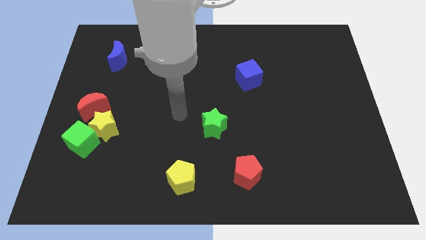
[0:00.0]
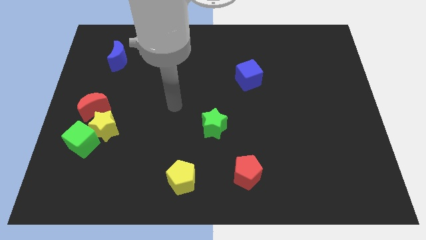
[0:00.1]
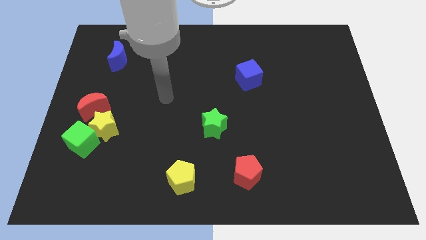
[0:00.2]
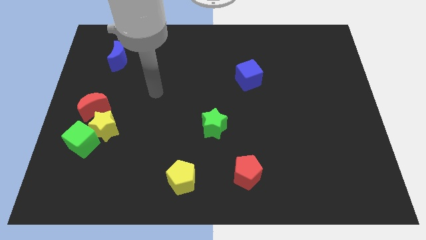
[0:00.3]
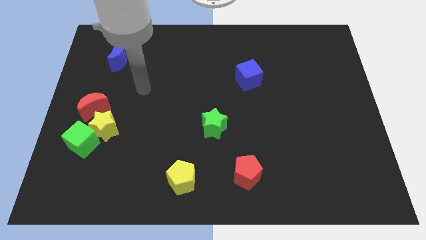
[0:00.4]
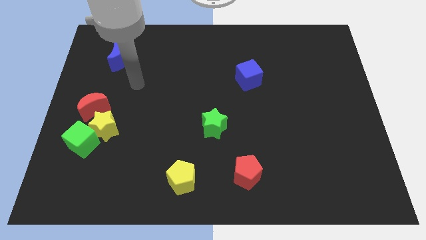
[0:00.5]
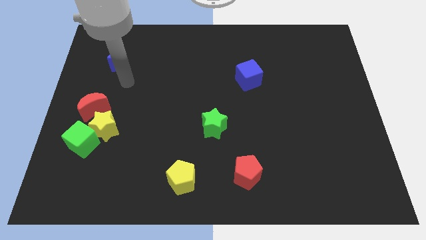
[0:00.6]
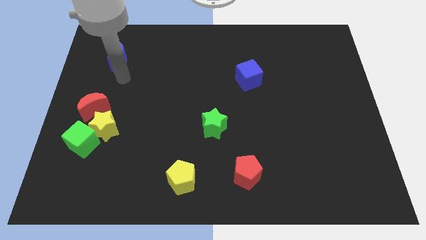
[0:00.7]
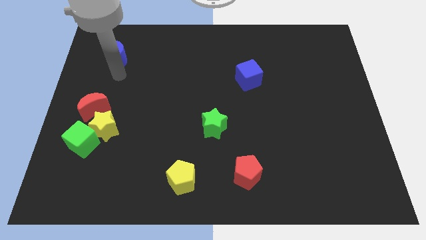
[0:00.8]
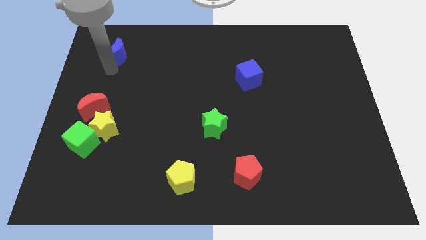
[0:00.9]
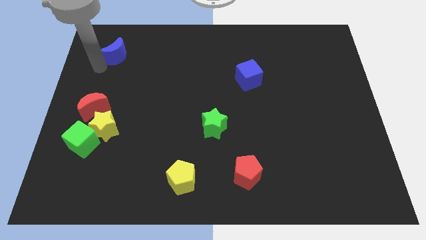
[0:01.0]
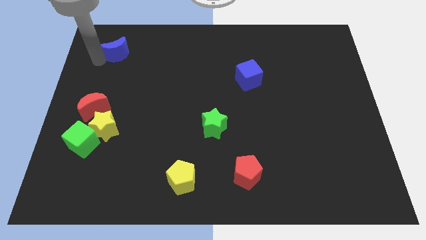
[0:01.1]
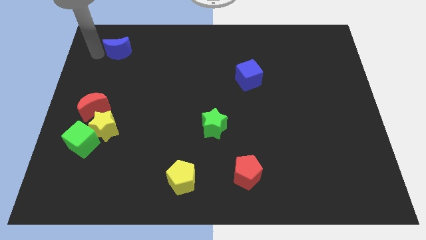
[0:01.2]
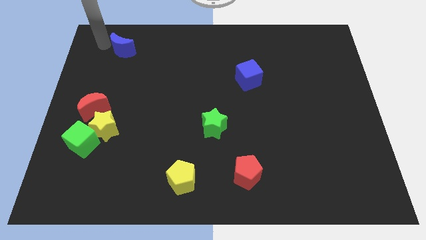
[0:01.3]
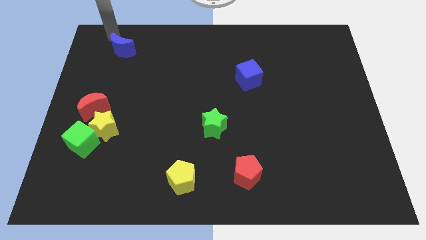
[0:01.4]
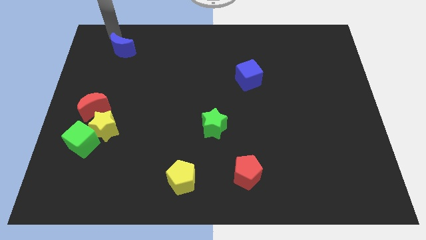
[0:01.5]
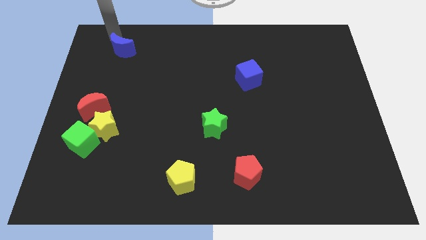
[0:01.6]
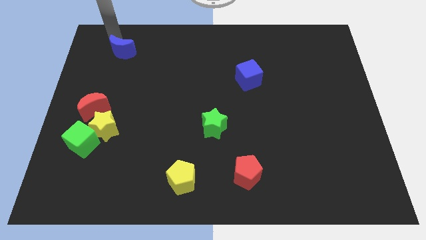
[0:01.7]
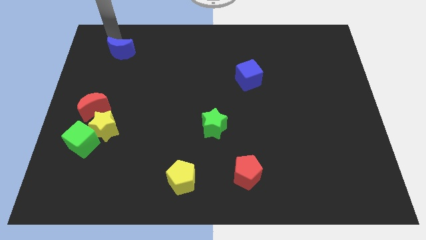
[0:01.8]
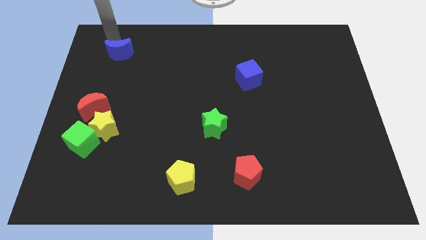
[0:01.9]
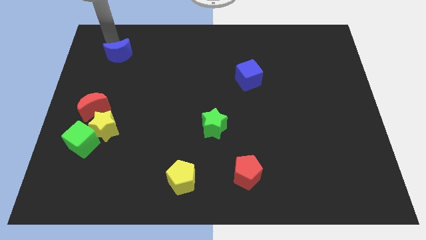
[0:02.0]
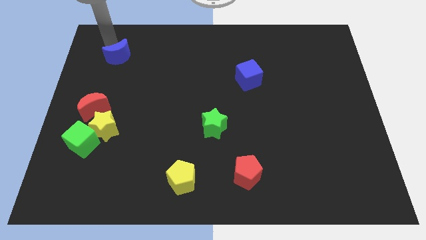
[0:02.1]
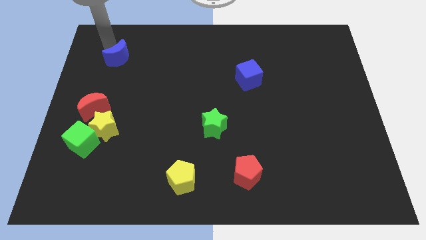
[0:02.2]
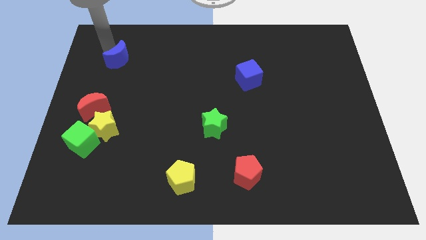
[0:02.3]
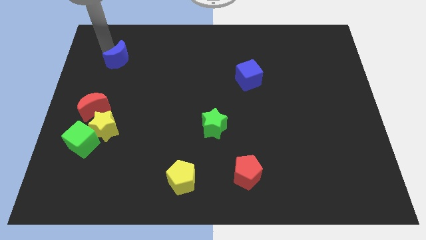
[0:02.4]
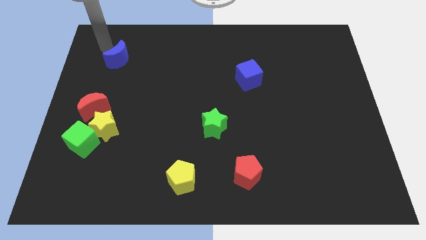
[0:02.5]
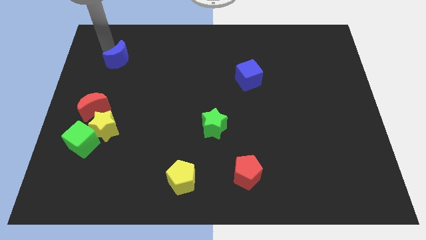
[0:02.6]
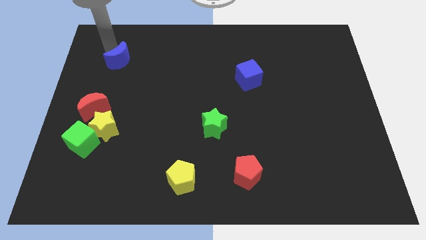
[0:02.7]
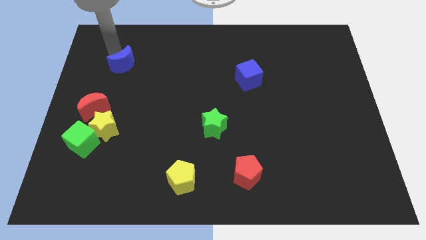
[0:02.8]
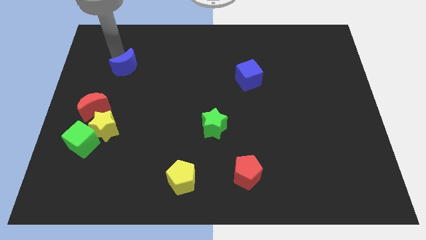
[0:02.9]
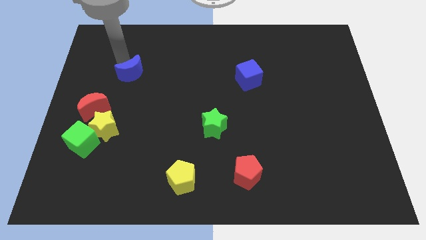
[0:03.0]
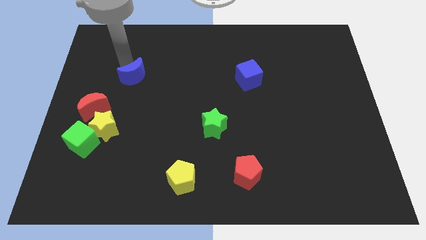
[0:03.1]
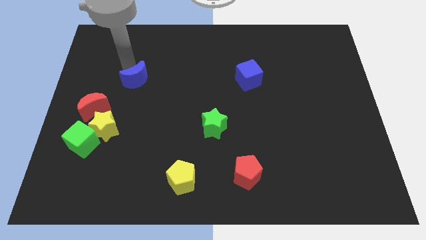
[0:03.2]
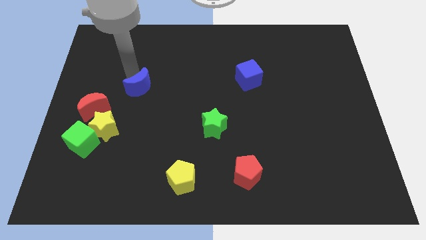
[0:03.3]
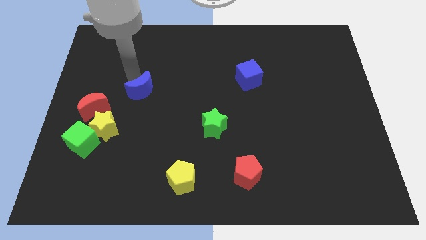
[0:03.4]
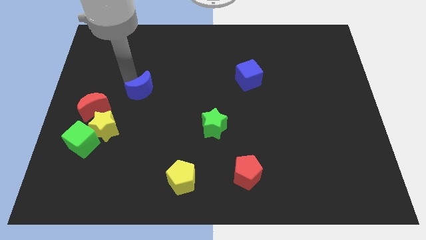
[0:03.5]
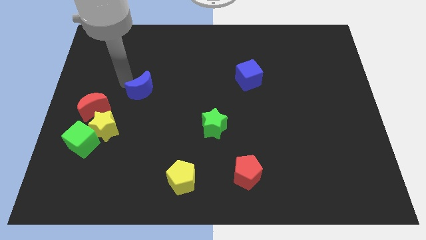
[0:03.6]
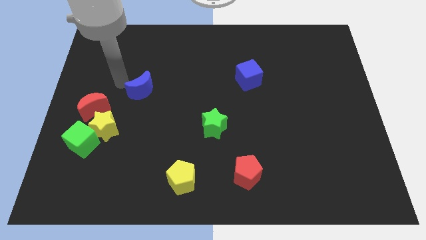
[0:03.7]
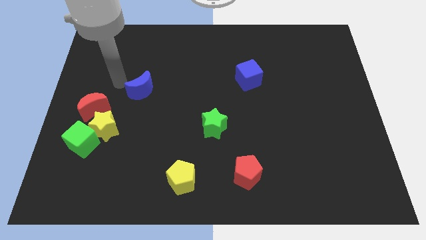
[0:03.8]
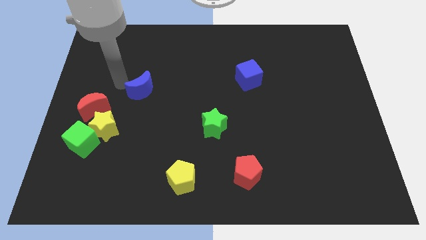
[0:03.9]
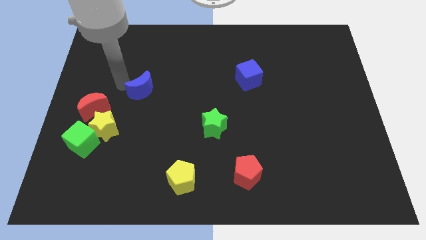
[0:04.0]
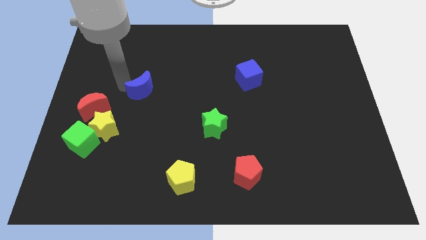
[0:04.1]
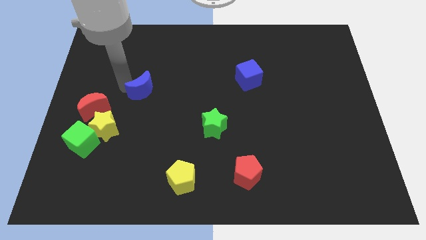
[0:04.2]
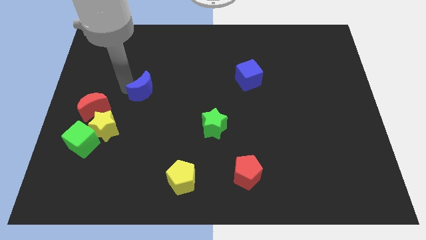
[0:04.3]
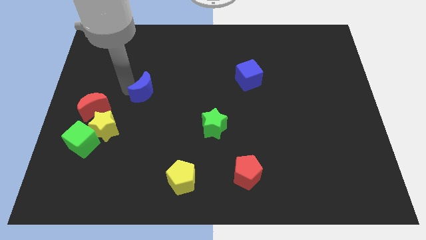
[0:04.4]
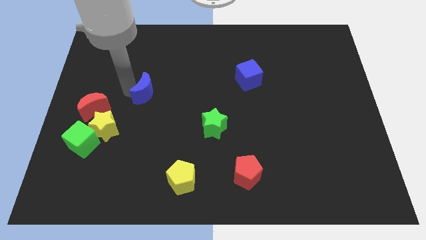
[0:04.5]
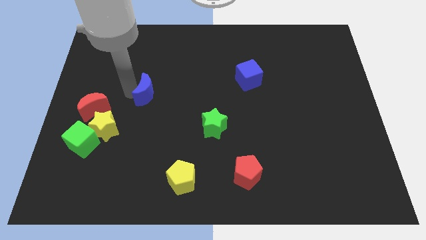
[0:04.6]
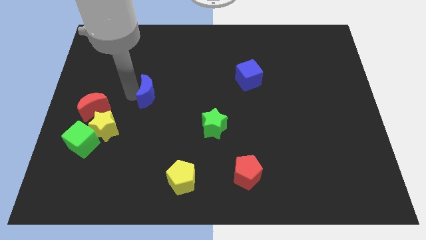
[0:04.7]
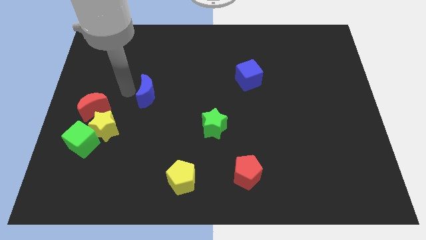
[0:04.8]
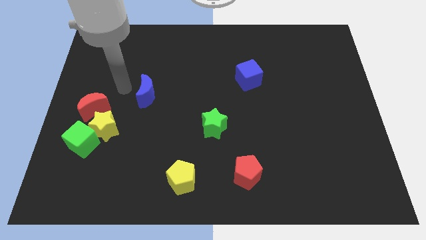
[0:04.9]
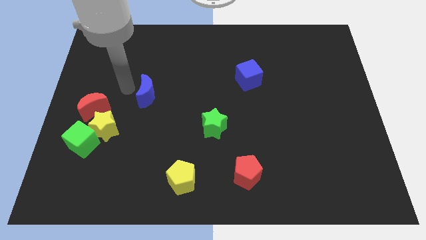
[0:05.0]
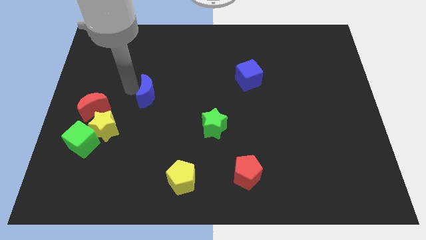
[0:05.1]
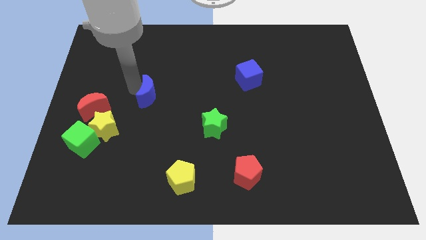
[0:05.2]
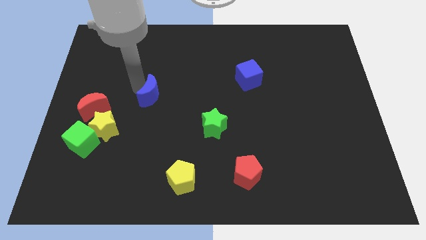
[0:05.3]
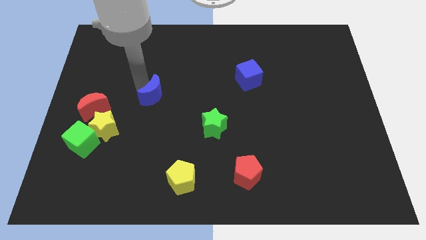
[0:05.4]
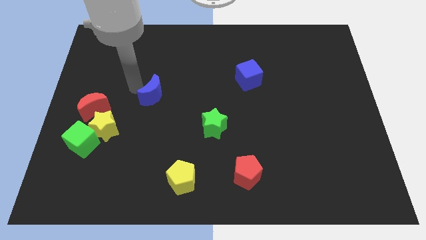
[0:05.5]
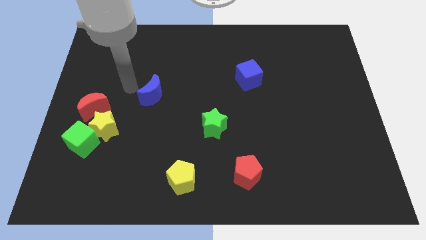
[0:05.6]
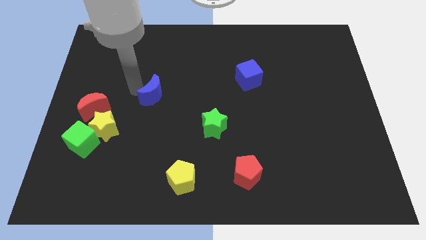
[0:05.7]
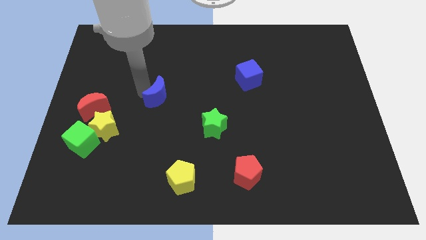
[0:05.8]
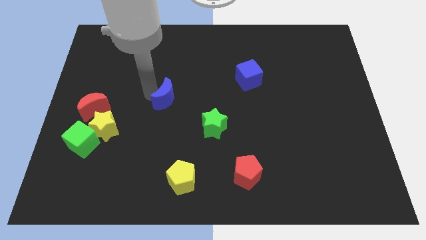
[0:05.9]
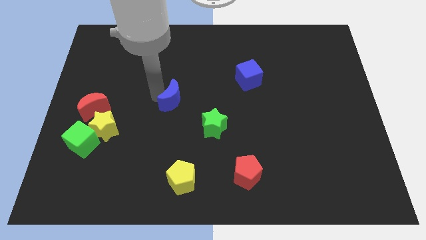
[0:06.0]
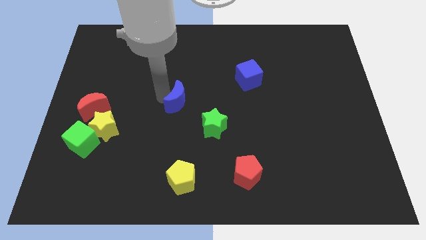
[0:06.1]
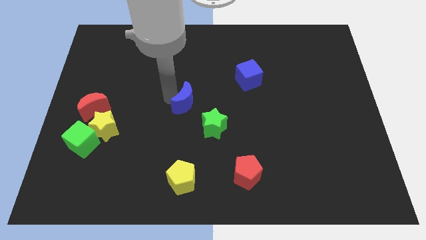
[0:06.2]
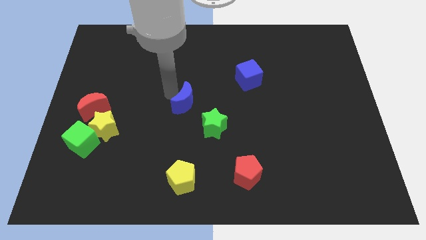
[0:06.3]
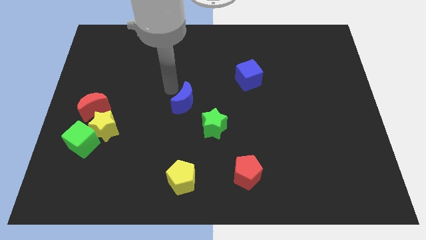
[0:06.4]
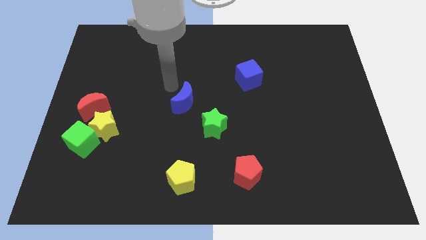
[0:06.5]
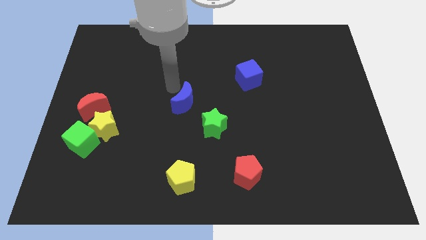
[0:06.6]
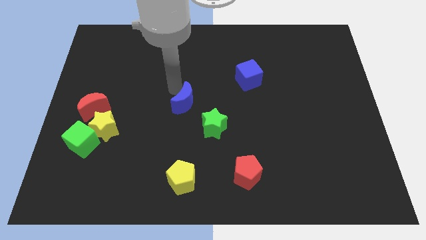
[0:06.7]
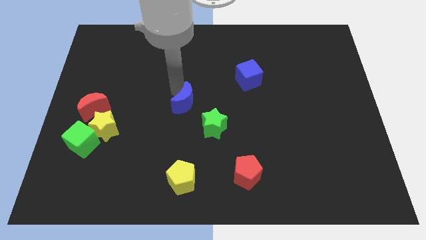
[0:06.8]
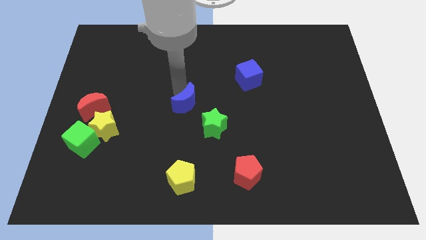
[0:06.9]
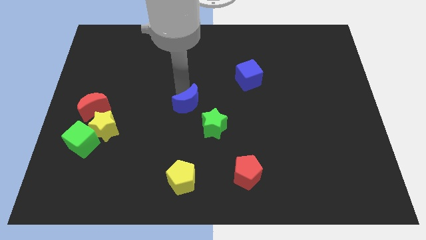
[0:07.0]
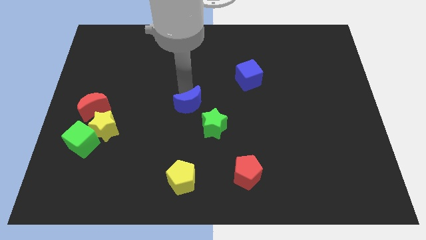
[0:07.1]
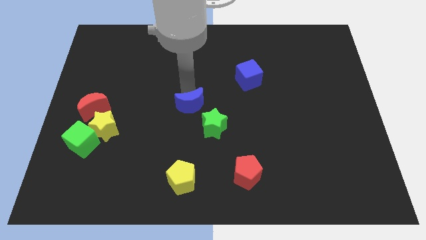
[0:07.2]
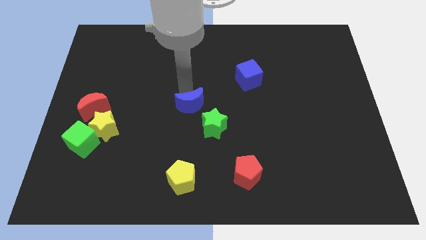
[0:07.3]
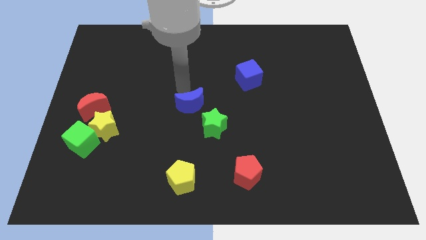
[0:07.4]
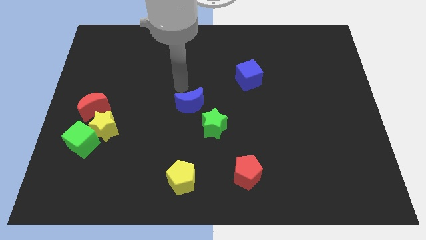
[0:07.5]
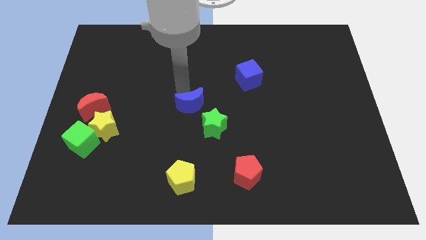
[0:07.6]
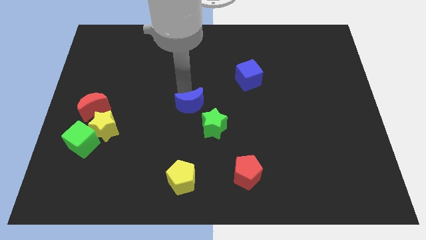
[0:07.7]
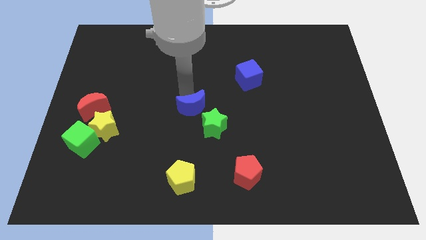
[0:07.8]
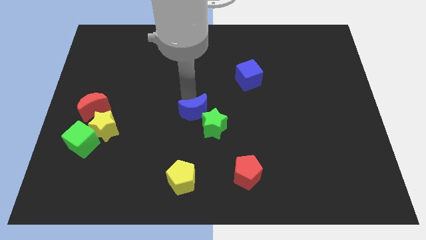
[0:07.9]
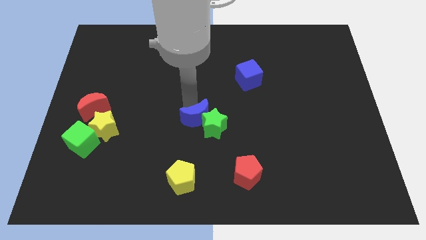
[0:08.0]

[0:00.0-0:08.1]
push the blue moon next to the green star

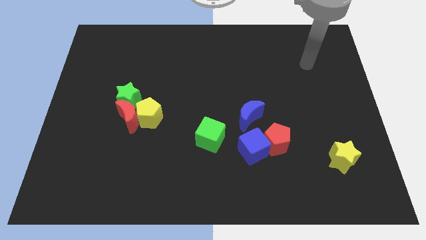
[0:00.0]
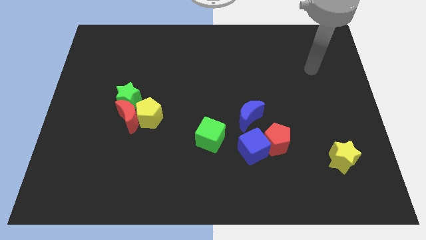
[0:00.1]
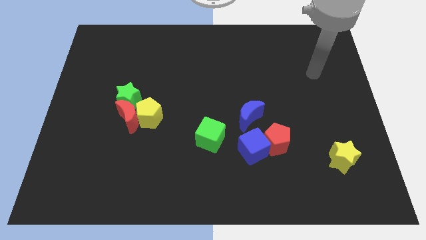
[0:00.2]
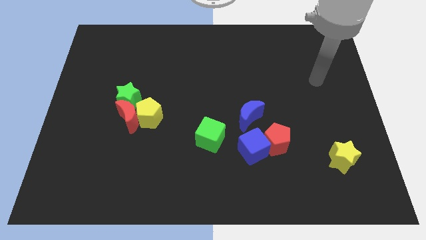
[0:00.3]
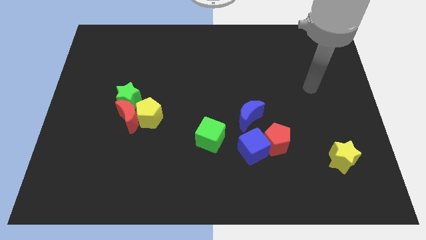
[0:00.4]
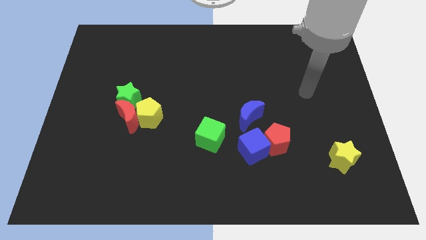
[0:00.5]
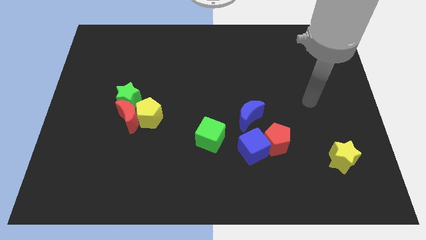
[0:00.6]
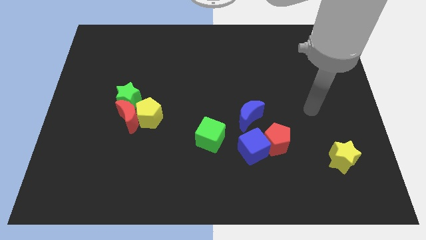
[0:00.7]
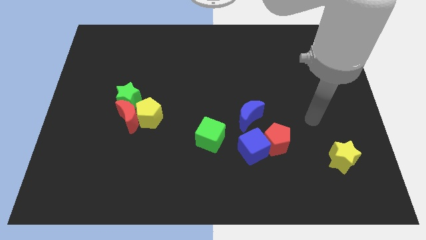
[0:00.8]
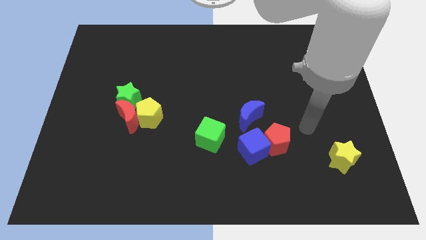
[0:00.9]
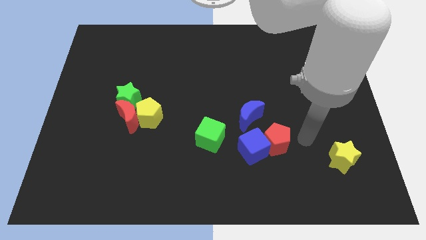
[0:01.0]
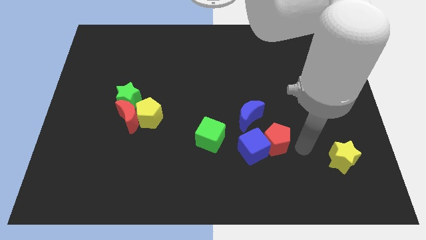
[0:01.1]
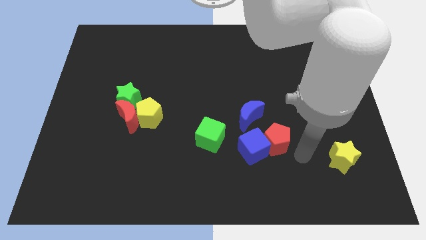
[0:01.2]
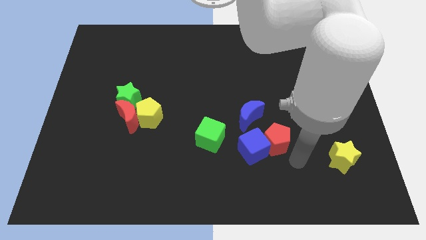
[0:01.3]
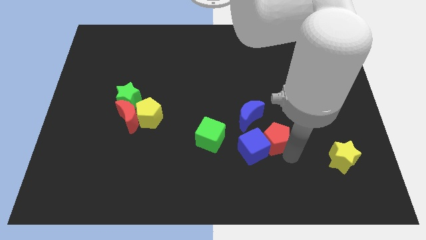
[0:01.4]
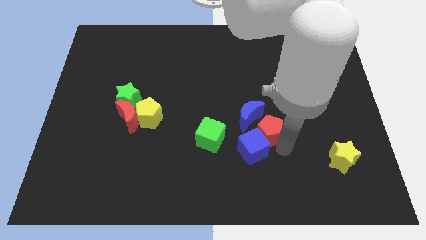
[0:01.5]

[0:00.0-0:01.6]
push the red pentagon to the blue moon
